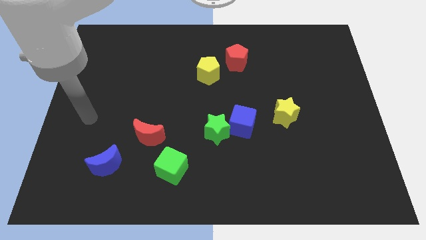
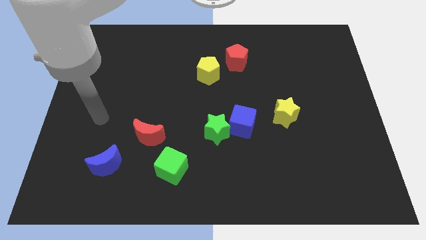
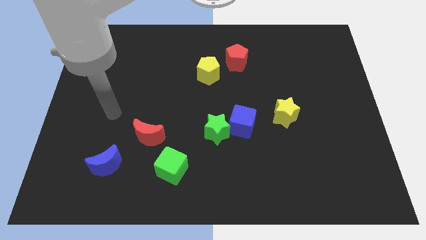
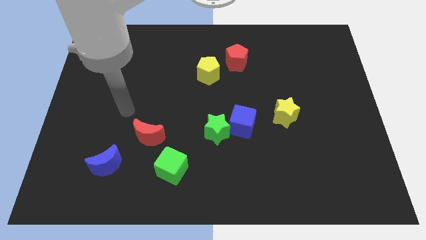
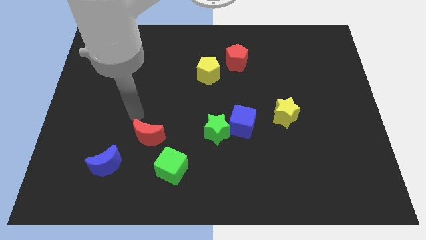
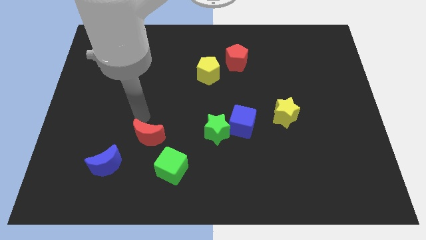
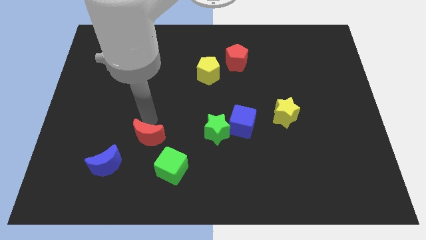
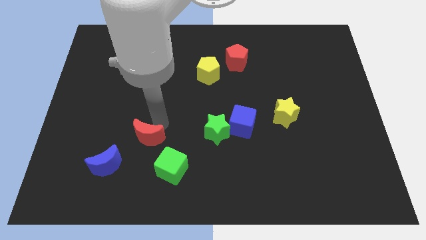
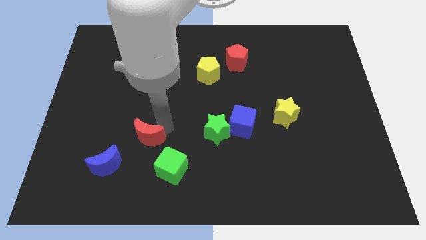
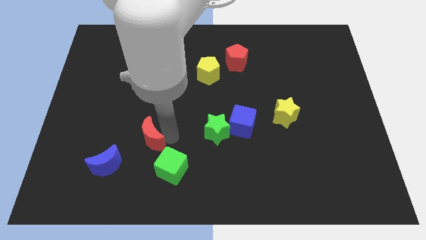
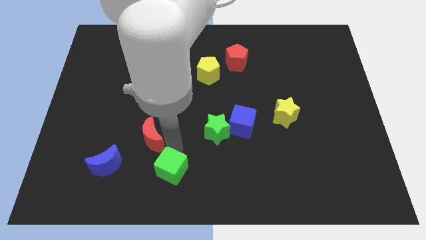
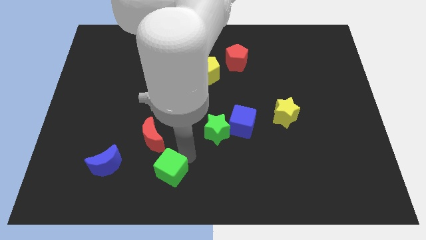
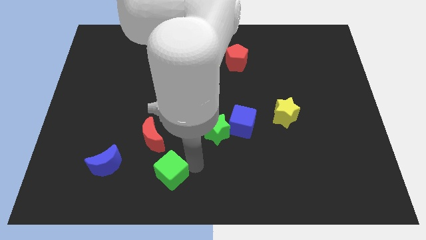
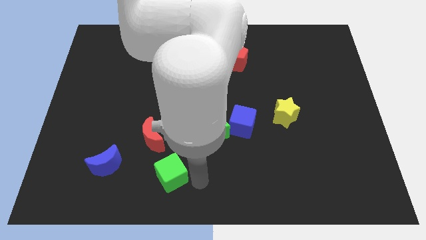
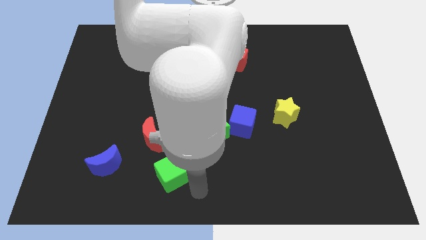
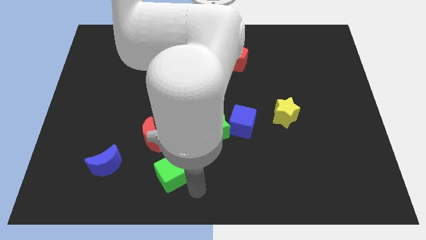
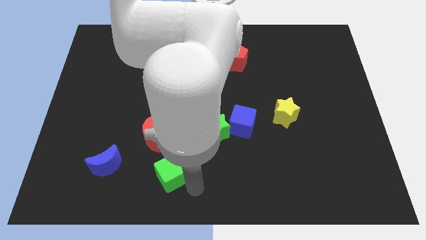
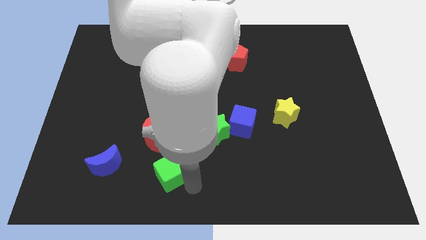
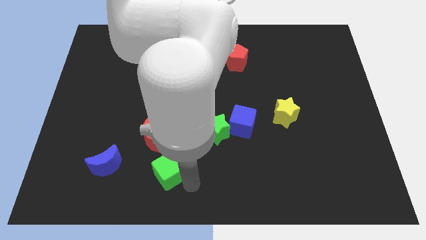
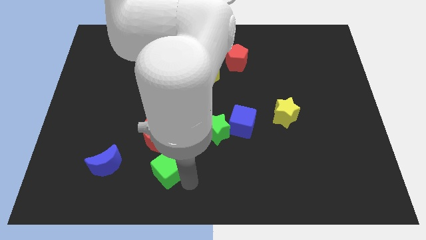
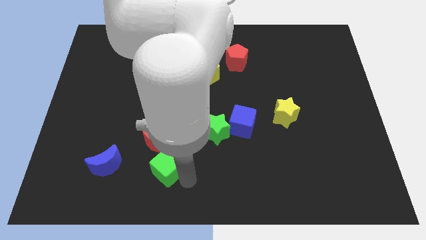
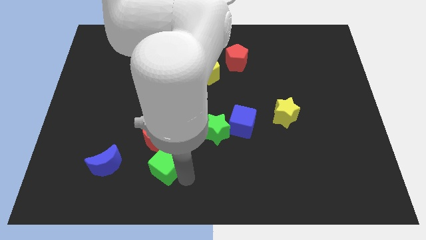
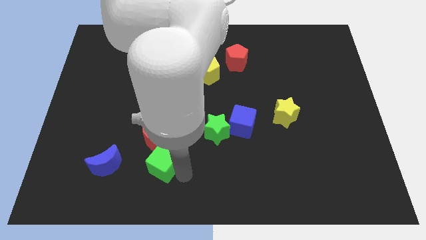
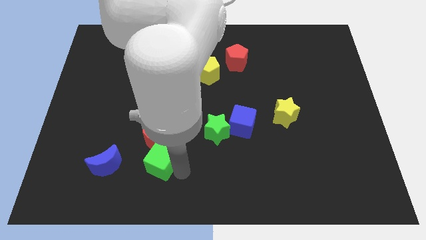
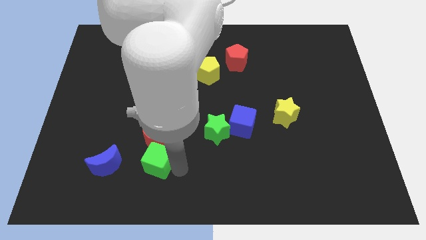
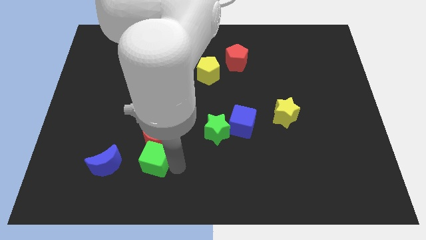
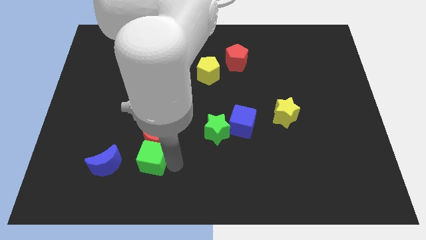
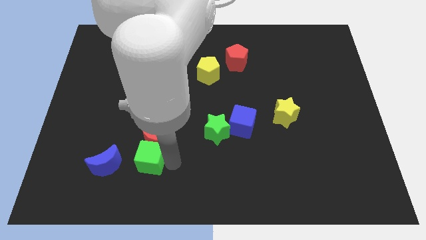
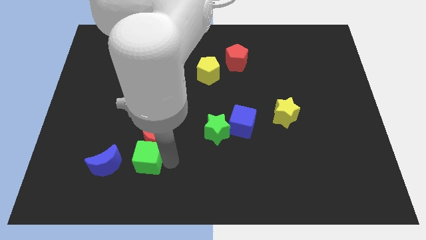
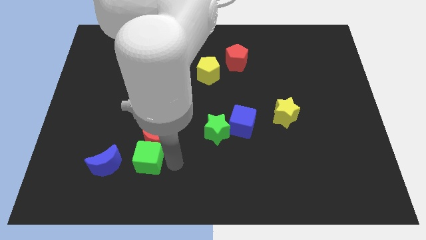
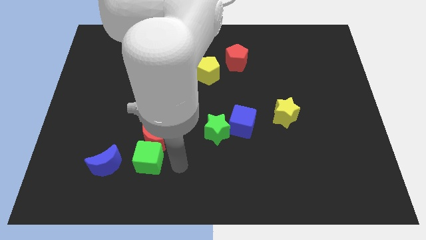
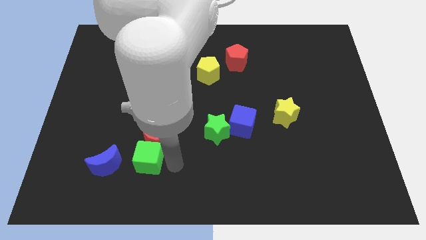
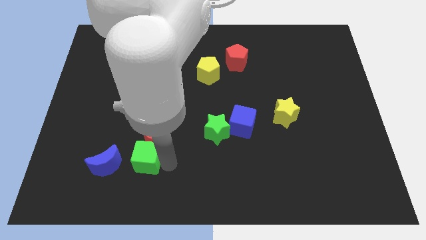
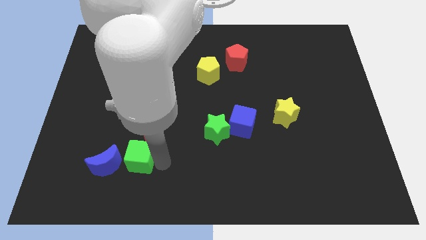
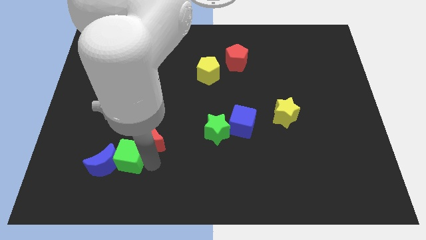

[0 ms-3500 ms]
move the green cube upwards and to the left a bit

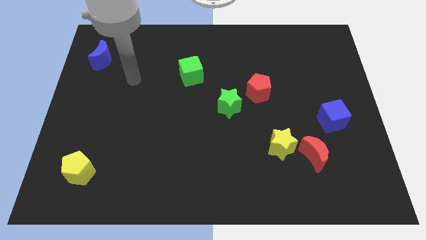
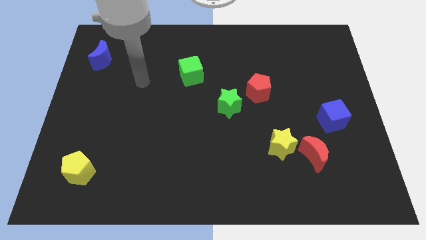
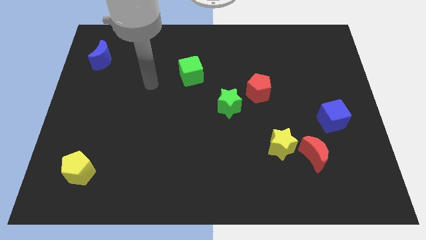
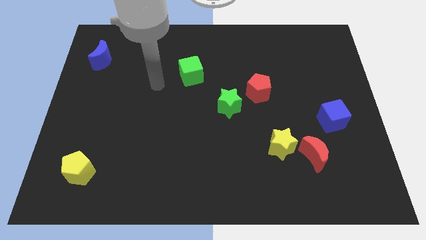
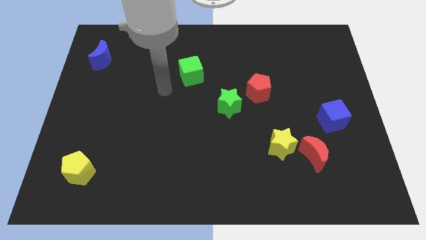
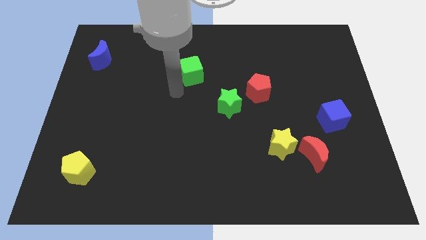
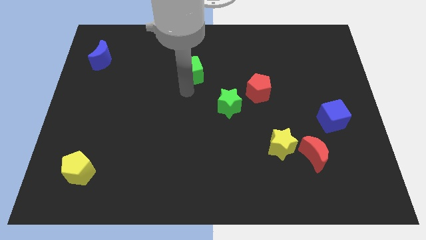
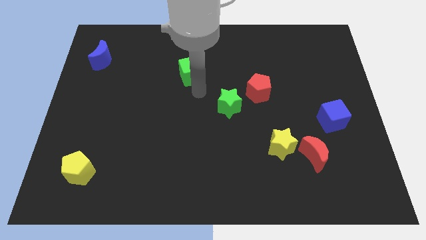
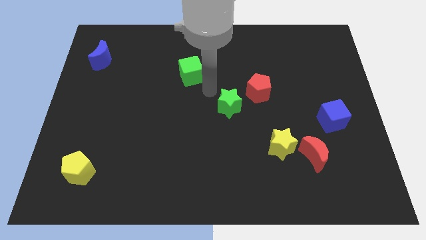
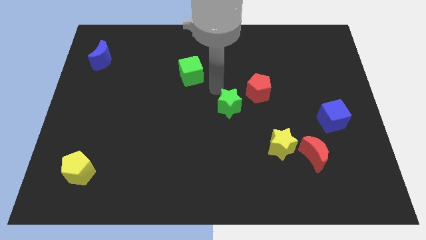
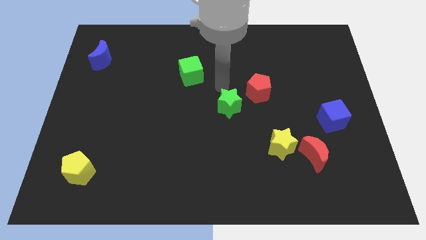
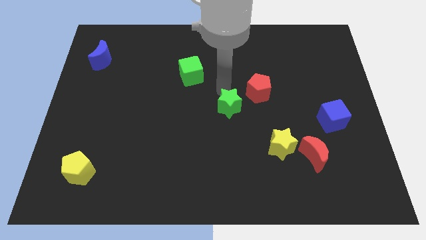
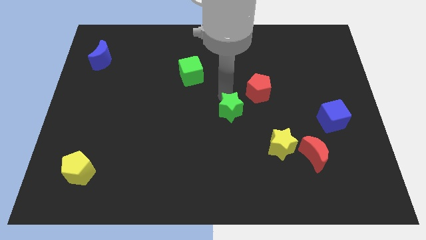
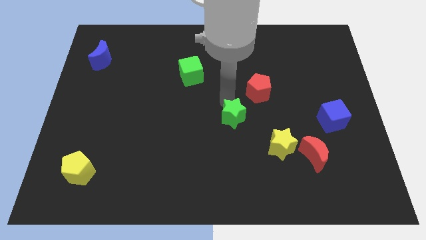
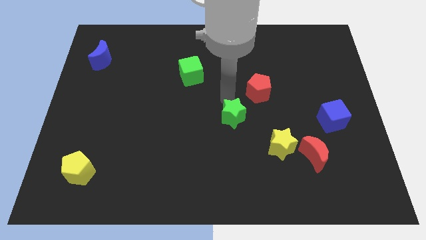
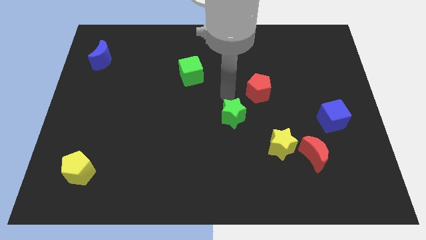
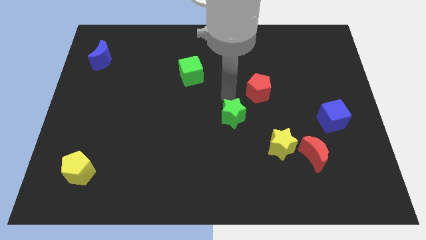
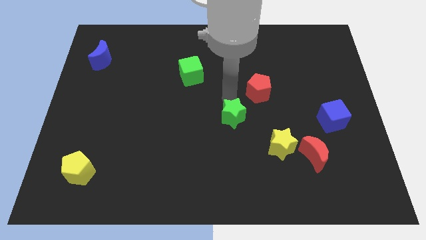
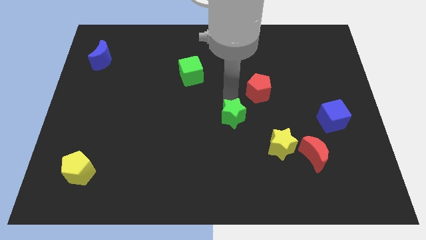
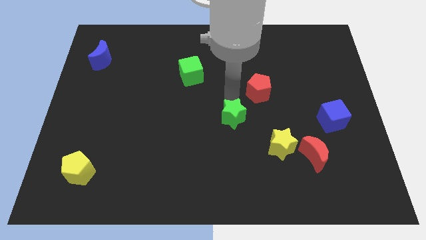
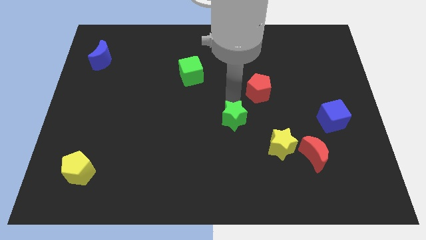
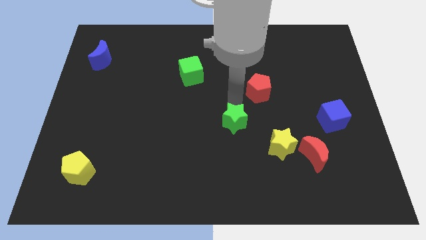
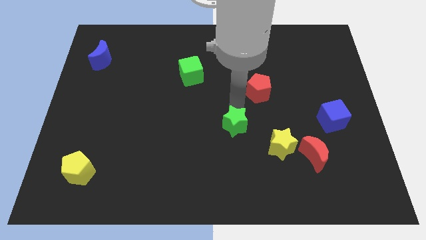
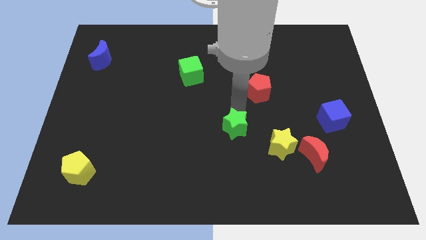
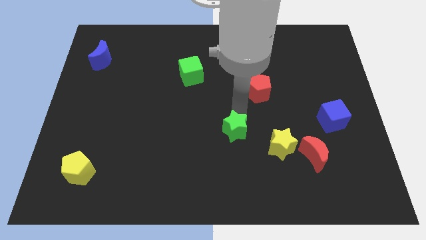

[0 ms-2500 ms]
slightly push the green star down

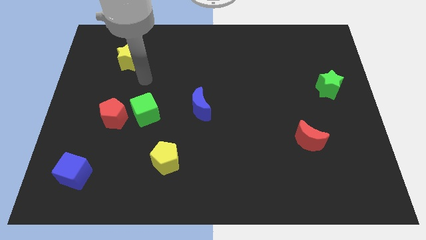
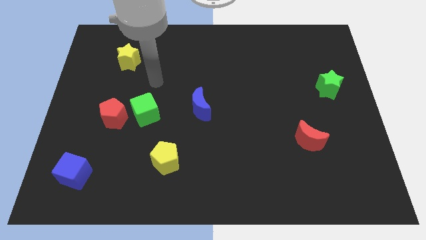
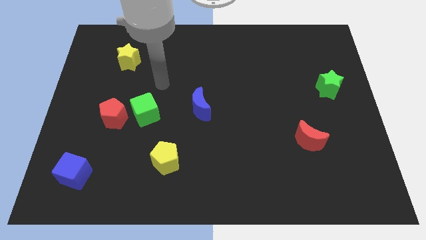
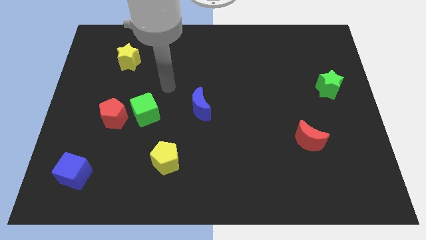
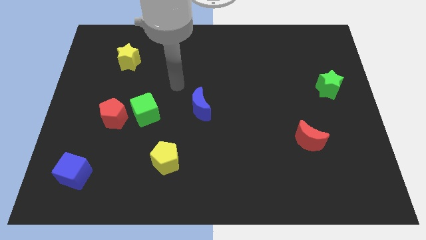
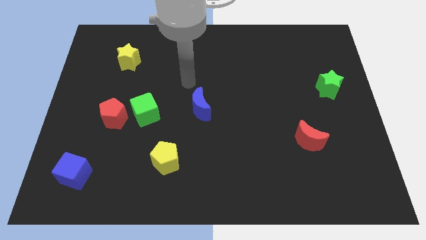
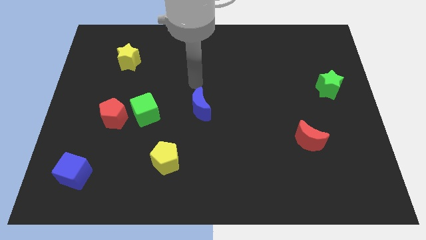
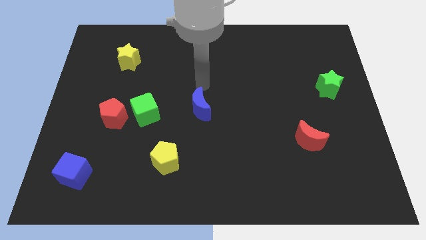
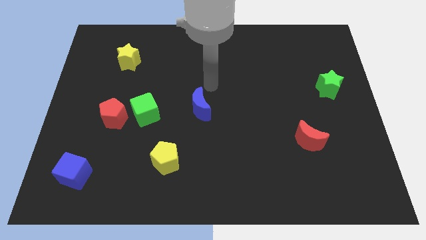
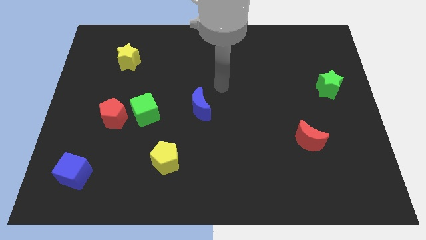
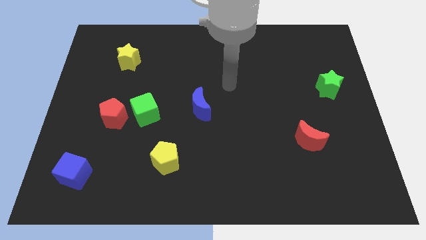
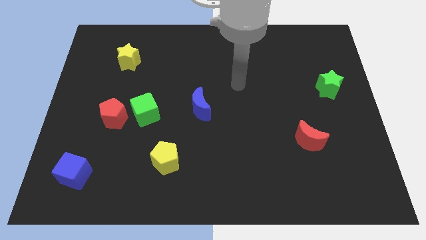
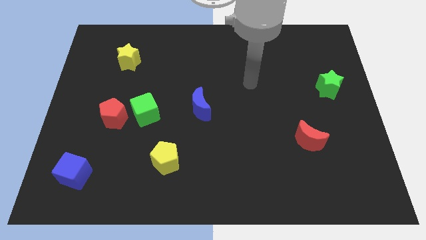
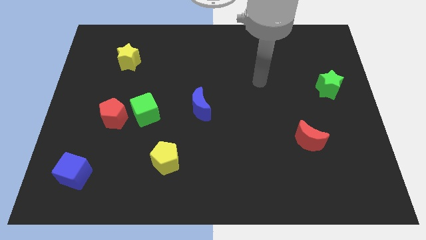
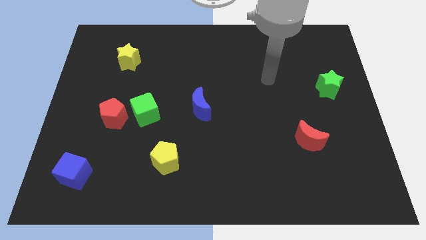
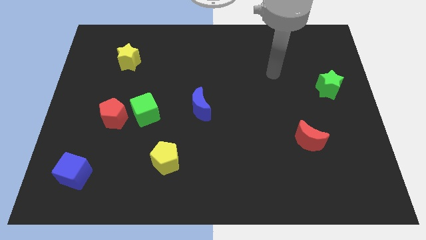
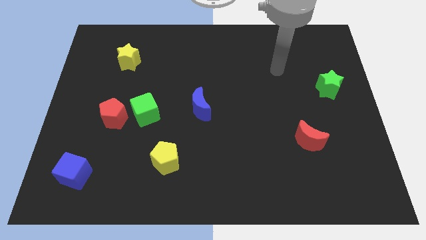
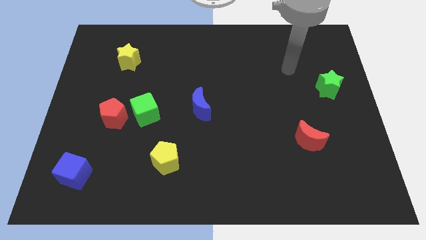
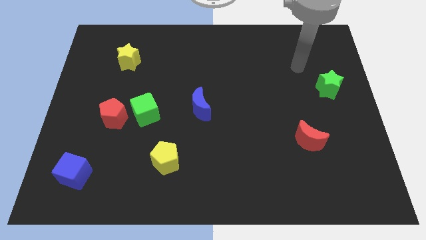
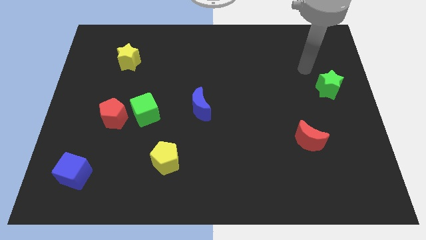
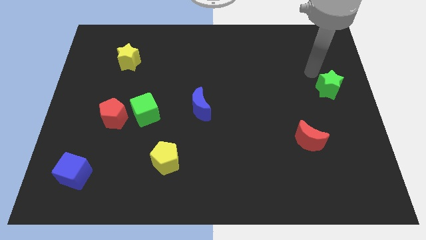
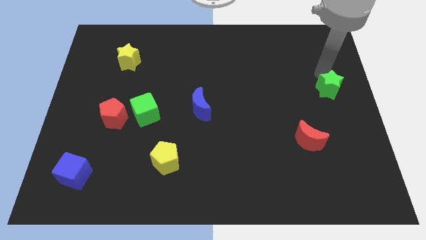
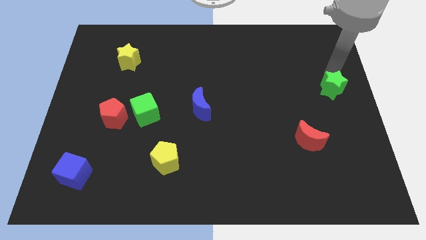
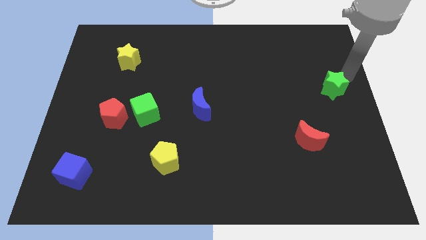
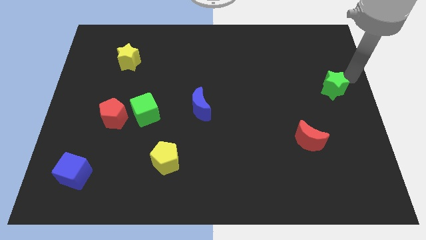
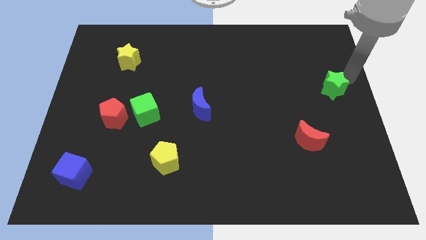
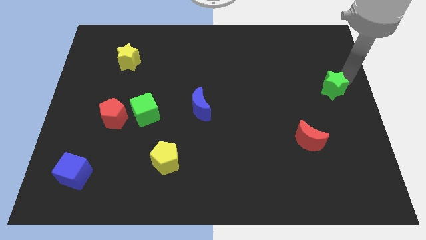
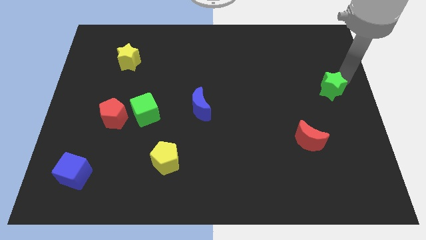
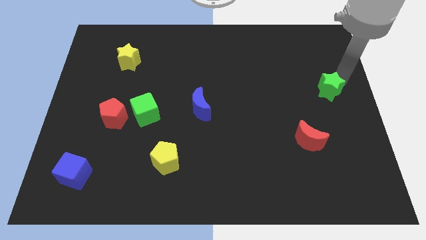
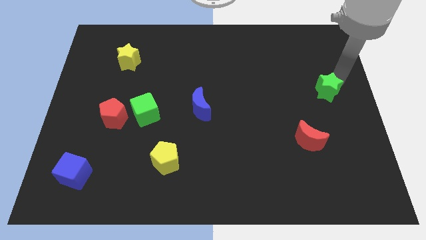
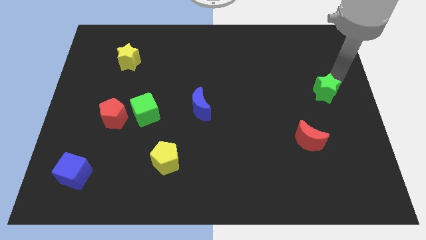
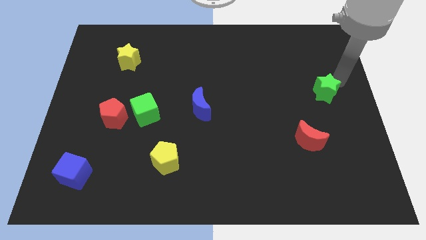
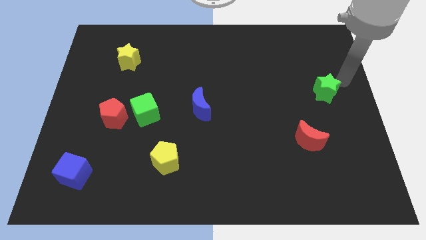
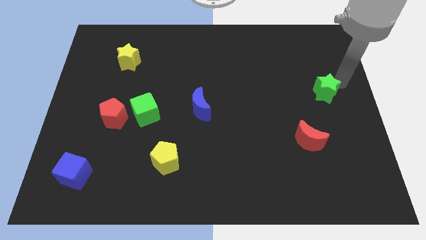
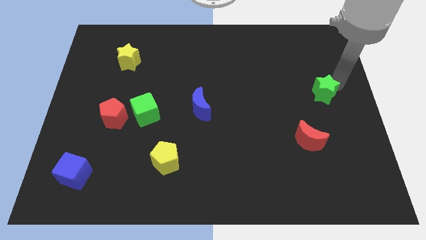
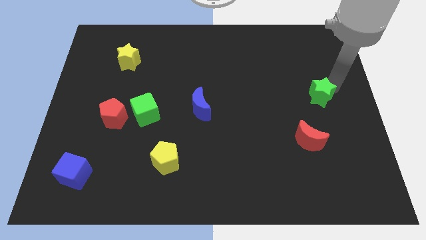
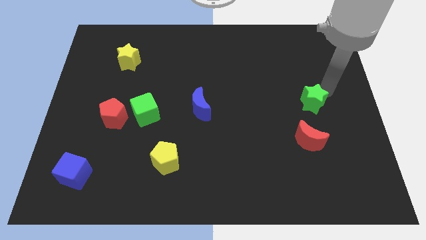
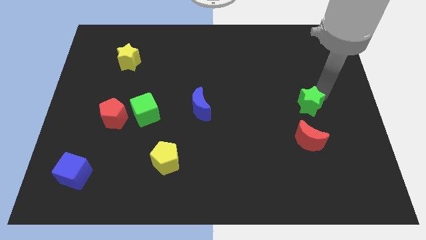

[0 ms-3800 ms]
move the green star diagonally down and left slightly
